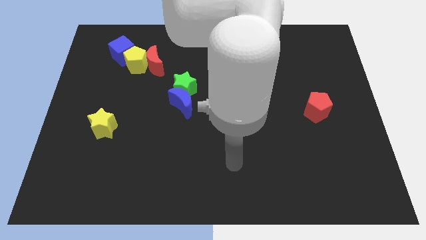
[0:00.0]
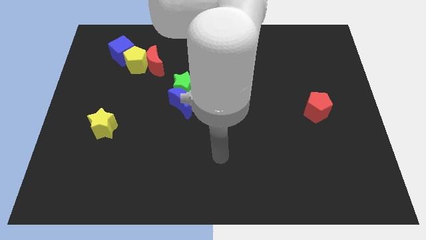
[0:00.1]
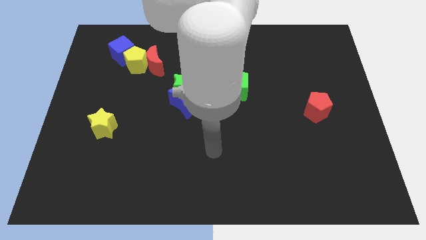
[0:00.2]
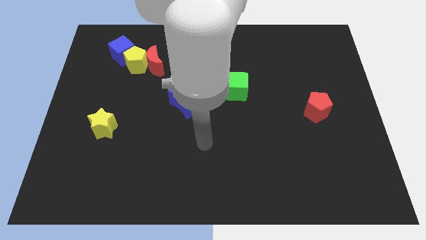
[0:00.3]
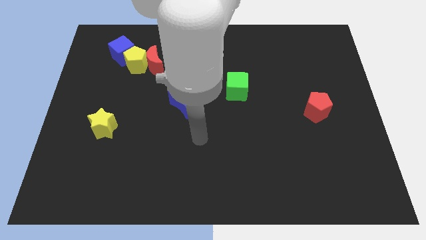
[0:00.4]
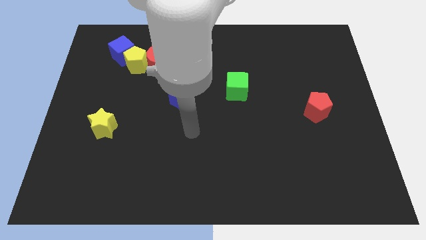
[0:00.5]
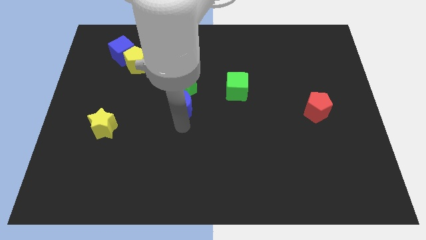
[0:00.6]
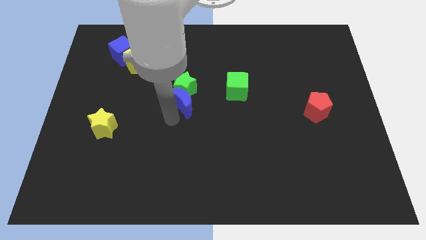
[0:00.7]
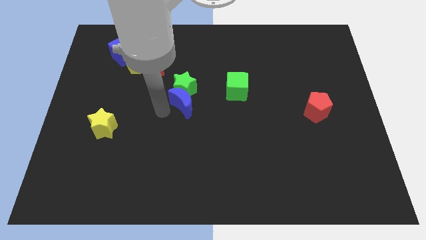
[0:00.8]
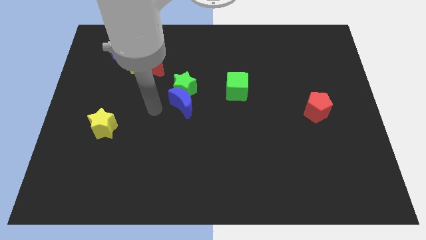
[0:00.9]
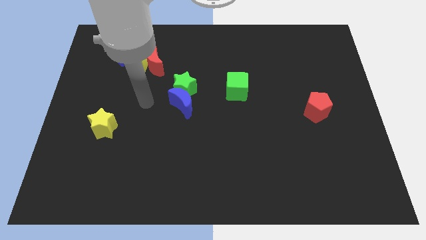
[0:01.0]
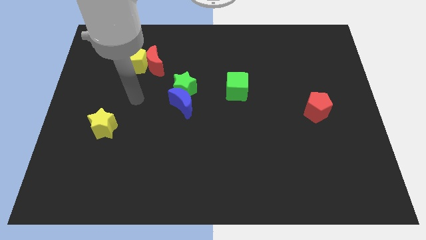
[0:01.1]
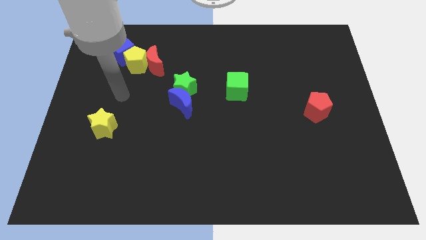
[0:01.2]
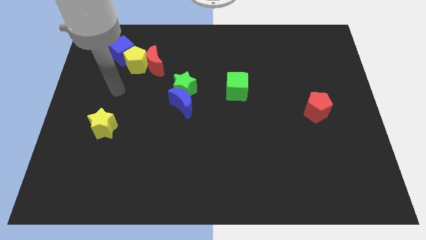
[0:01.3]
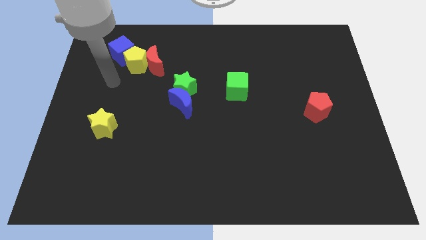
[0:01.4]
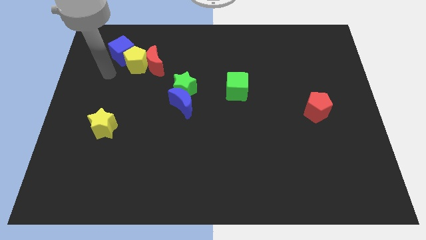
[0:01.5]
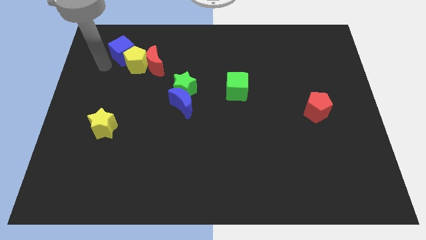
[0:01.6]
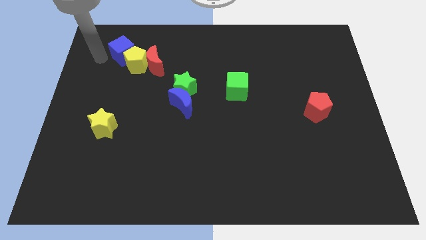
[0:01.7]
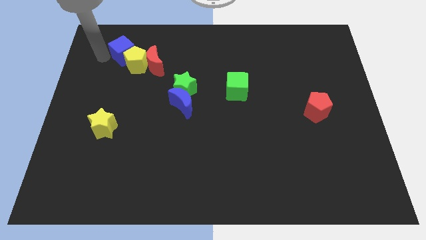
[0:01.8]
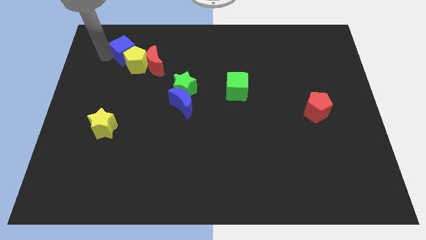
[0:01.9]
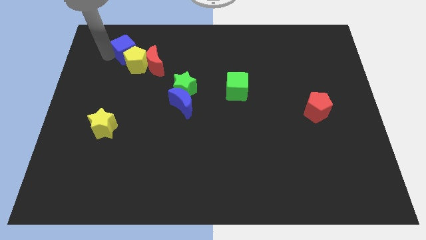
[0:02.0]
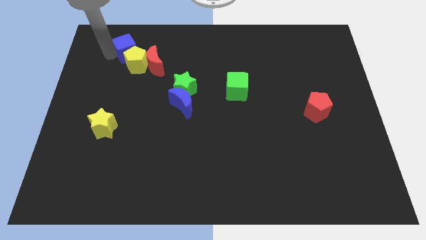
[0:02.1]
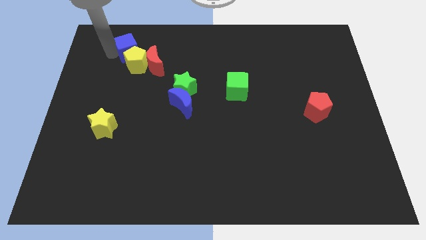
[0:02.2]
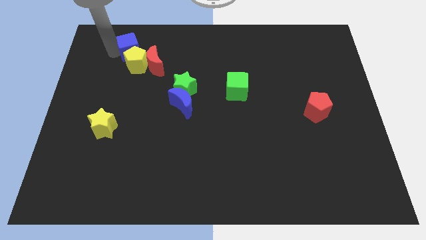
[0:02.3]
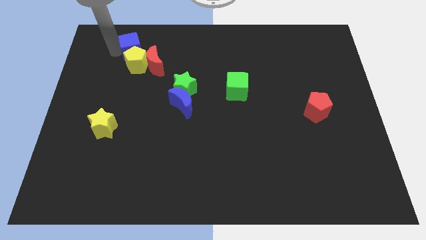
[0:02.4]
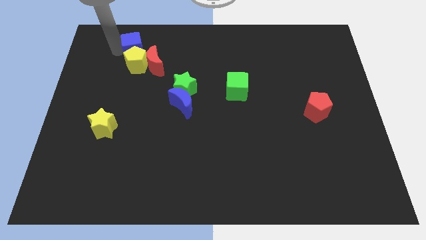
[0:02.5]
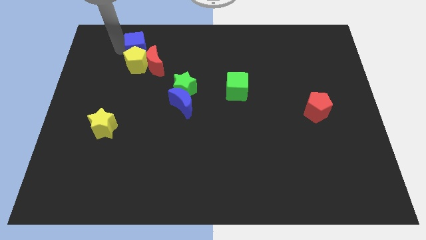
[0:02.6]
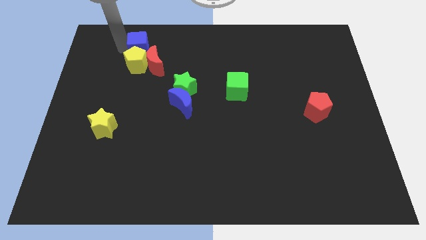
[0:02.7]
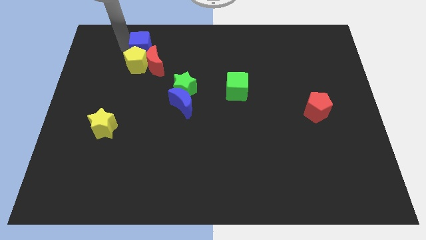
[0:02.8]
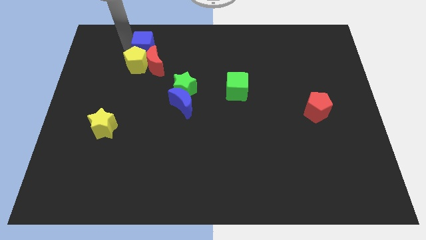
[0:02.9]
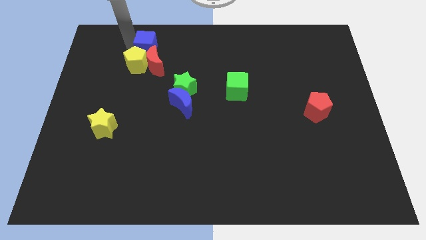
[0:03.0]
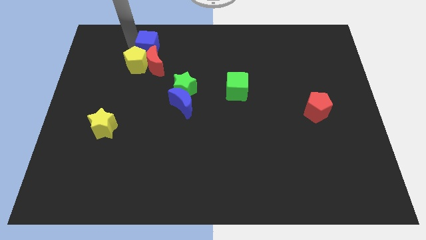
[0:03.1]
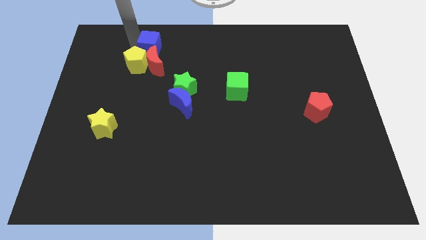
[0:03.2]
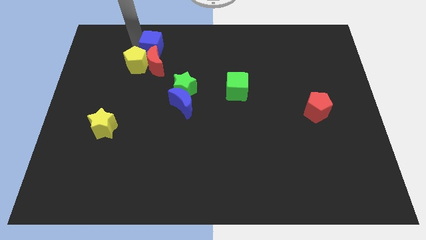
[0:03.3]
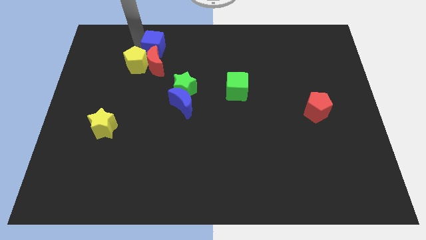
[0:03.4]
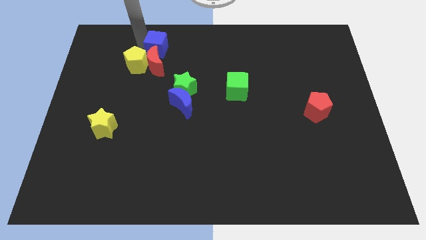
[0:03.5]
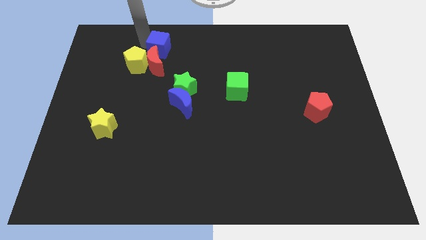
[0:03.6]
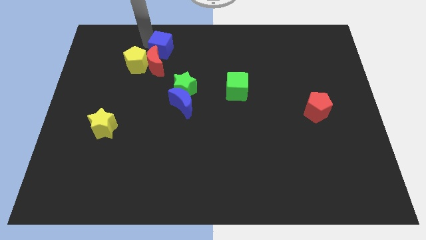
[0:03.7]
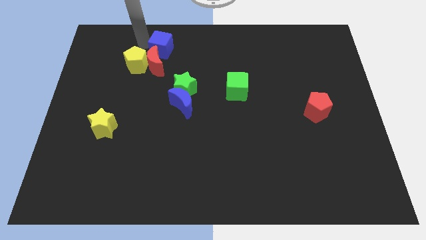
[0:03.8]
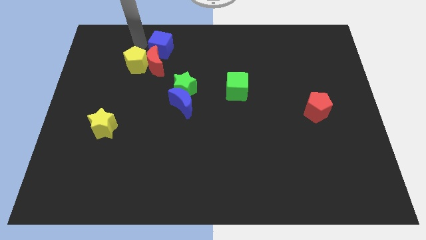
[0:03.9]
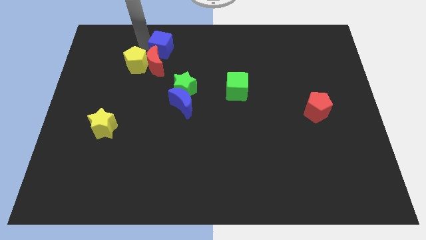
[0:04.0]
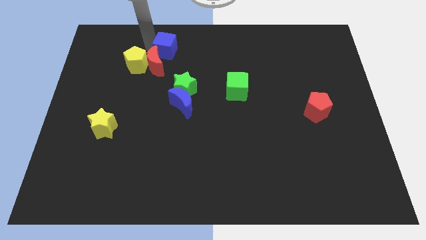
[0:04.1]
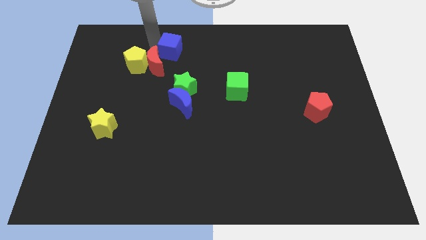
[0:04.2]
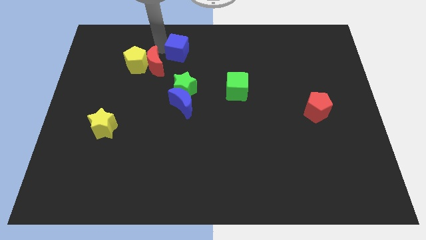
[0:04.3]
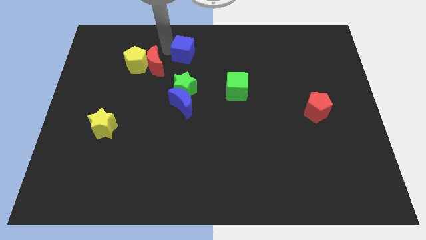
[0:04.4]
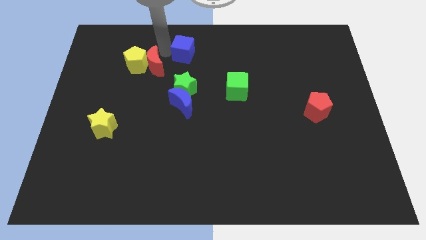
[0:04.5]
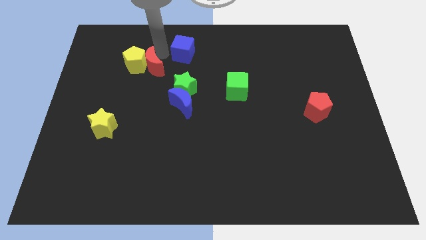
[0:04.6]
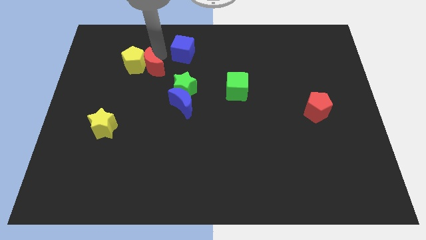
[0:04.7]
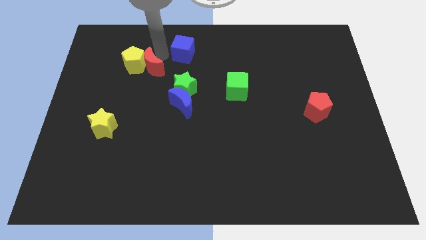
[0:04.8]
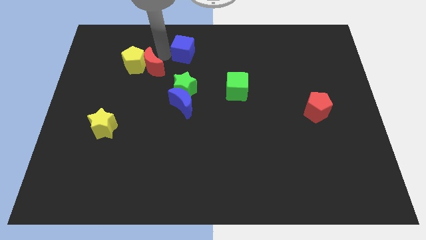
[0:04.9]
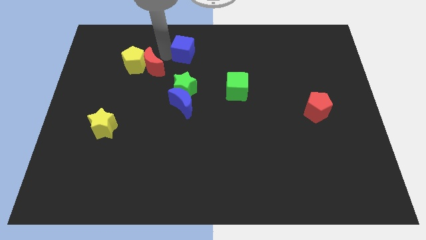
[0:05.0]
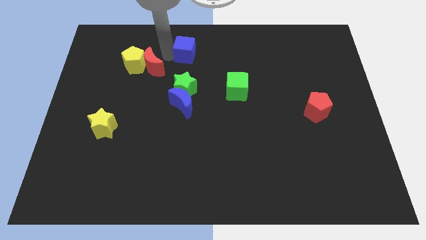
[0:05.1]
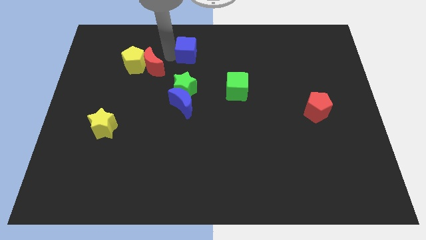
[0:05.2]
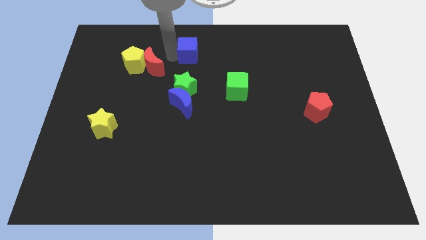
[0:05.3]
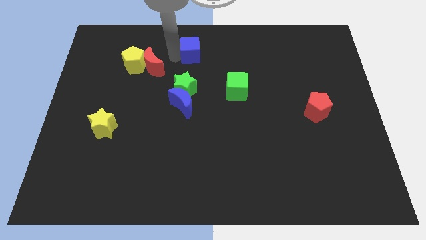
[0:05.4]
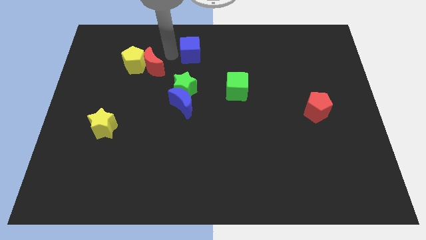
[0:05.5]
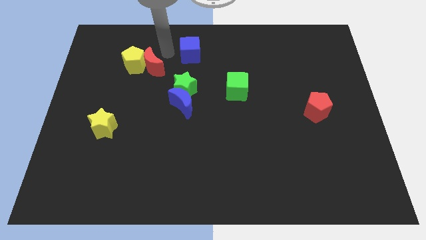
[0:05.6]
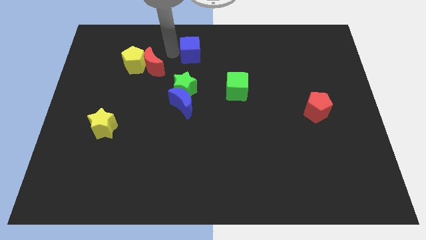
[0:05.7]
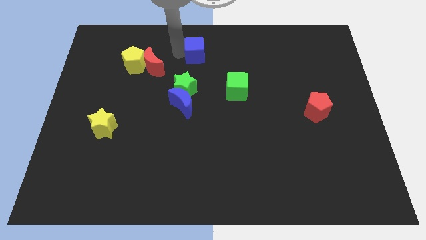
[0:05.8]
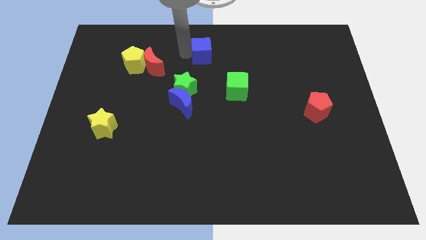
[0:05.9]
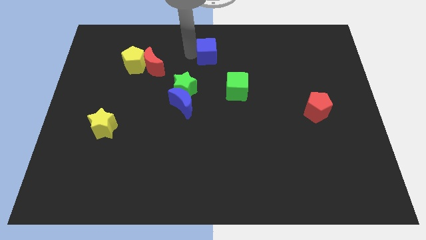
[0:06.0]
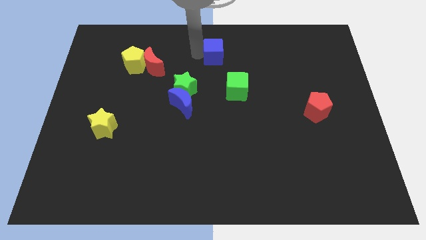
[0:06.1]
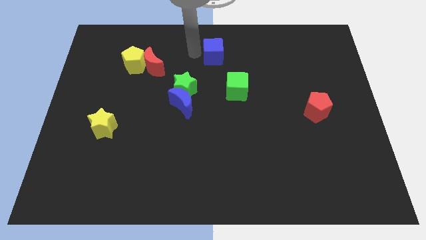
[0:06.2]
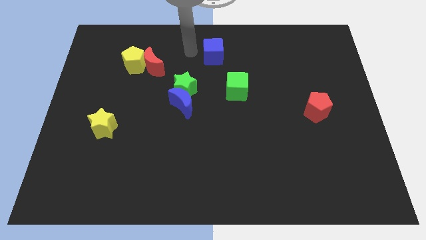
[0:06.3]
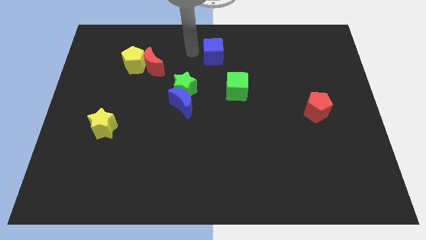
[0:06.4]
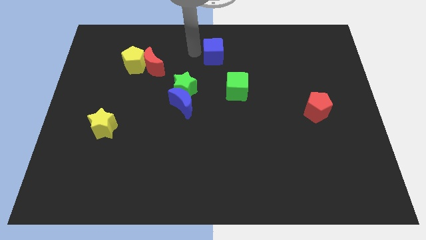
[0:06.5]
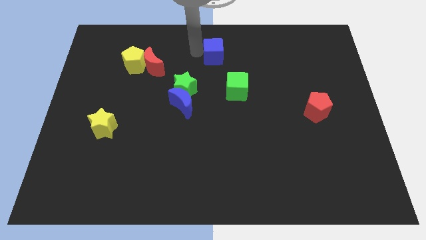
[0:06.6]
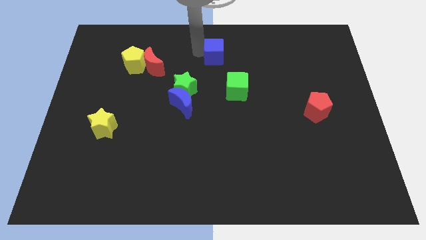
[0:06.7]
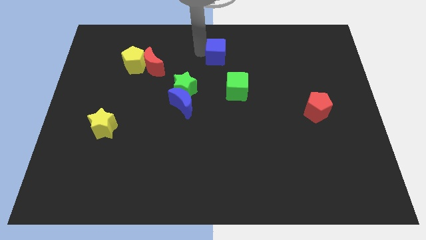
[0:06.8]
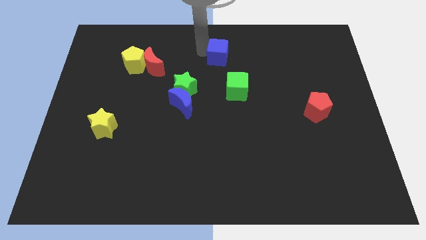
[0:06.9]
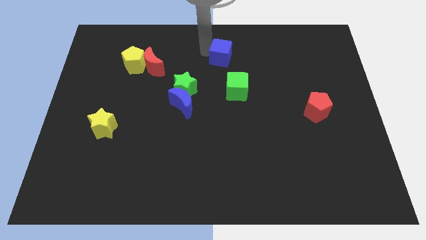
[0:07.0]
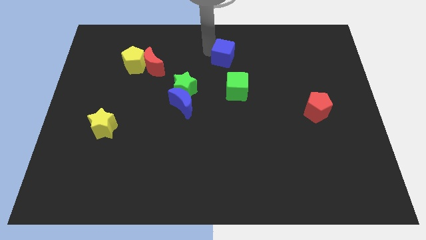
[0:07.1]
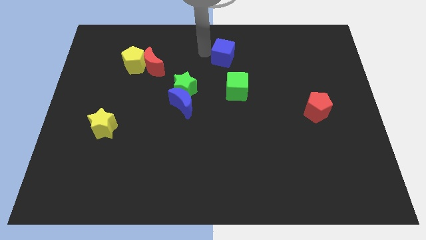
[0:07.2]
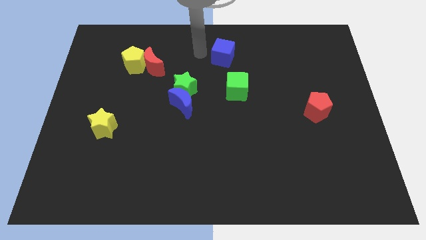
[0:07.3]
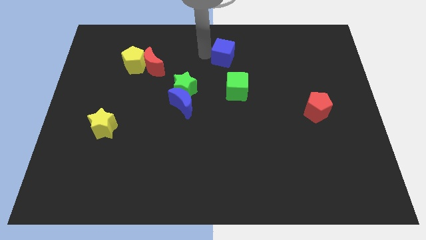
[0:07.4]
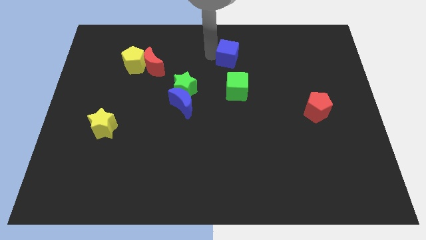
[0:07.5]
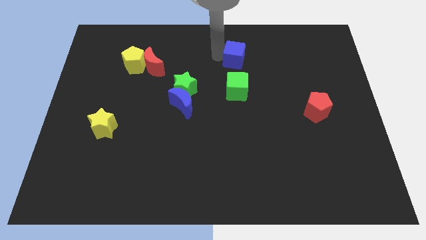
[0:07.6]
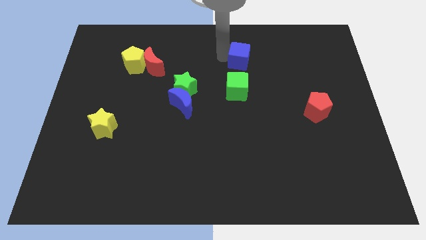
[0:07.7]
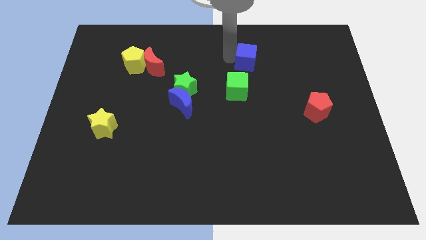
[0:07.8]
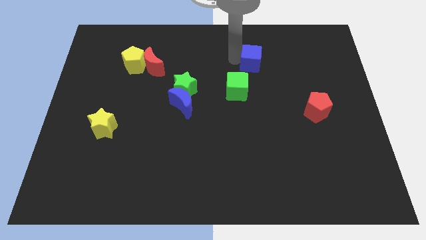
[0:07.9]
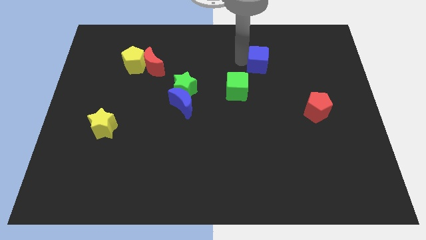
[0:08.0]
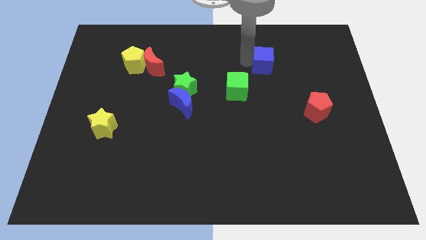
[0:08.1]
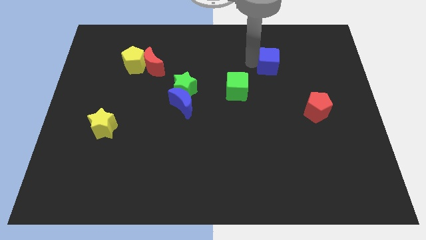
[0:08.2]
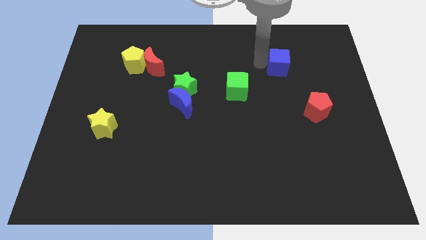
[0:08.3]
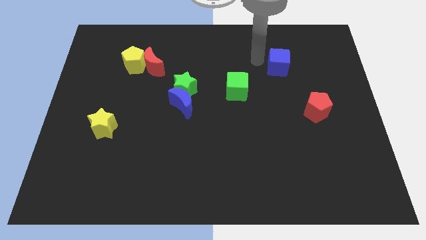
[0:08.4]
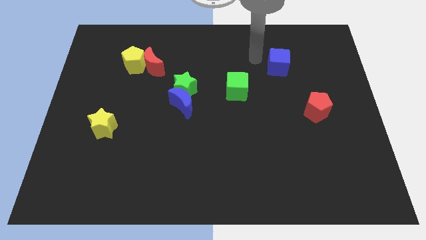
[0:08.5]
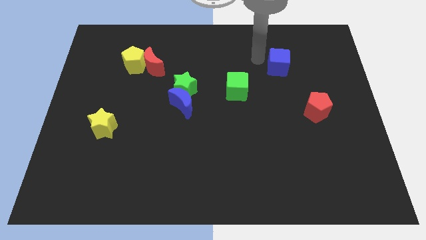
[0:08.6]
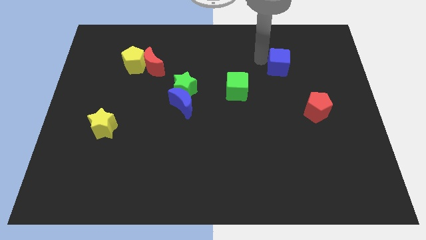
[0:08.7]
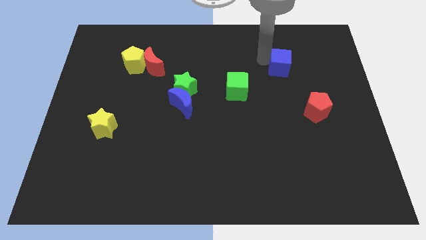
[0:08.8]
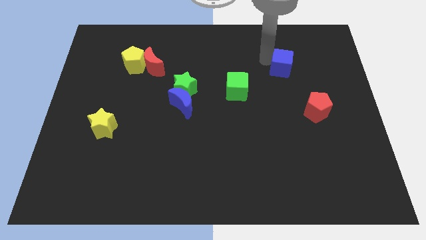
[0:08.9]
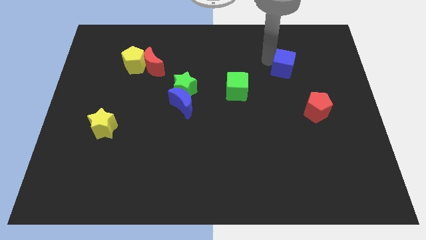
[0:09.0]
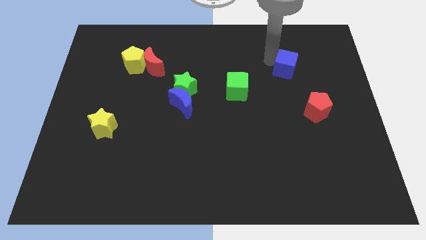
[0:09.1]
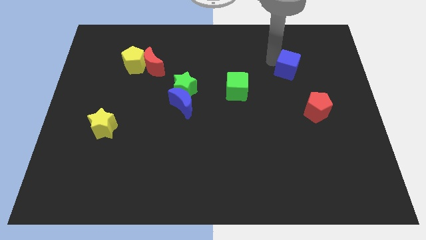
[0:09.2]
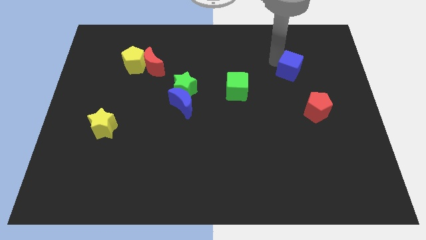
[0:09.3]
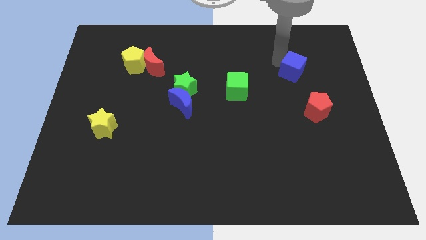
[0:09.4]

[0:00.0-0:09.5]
put the blue cube above the red pentagon
